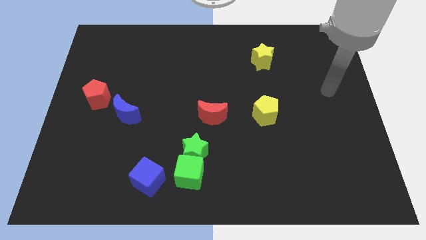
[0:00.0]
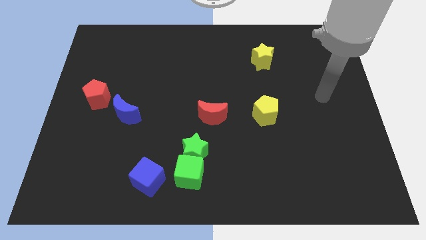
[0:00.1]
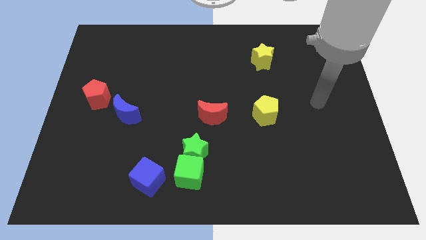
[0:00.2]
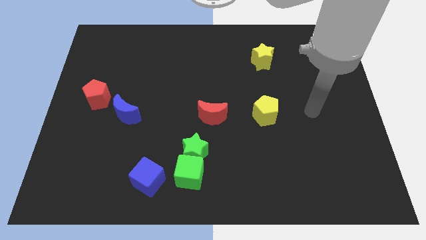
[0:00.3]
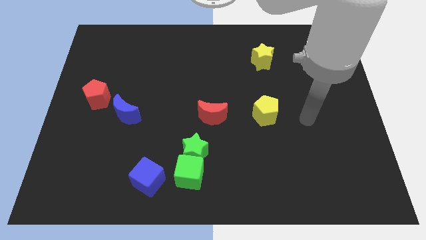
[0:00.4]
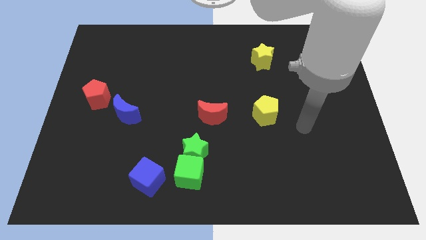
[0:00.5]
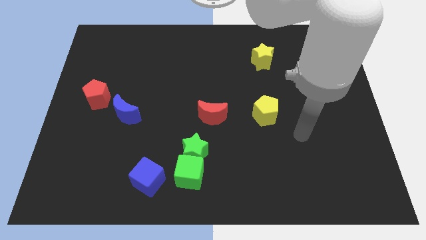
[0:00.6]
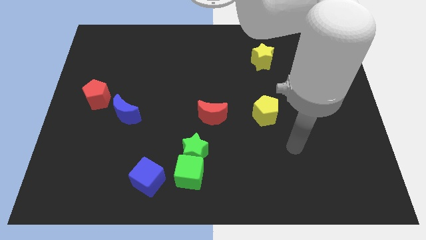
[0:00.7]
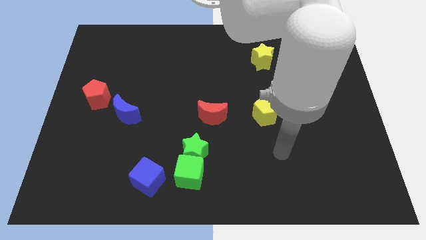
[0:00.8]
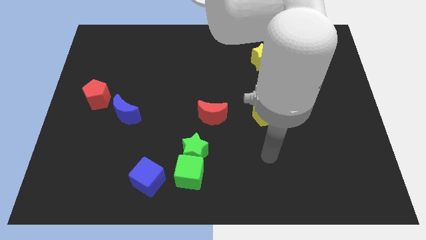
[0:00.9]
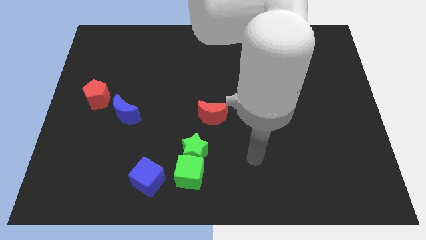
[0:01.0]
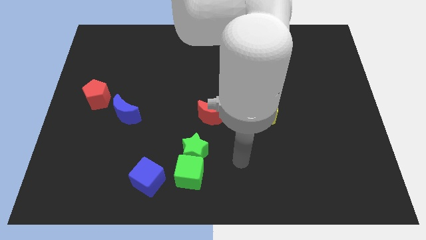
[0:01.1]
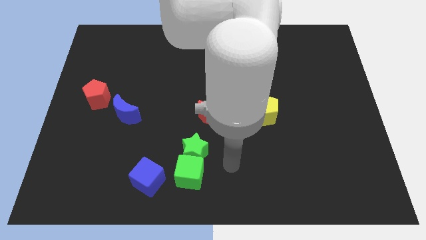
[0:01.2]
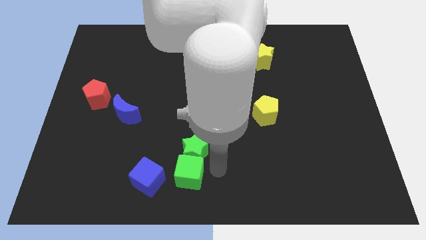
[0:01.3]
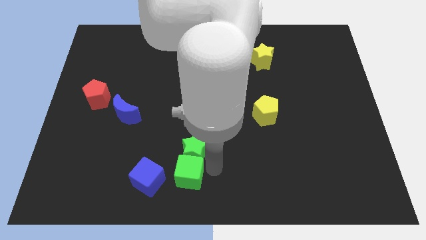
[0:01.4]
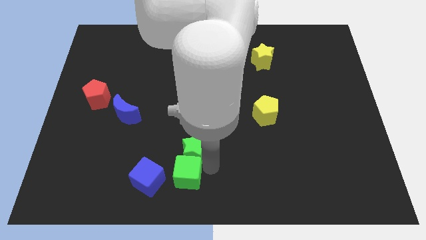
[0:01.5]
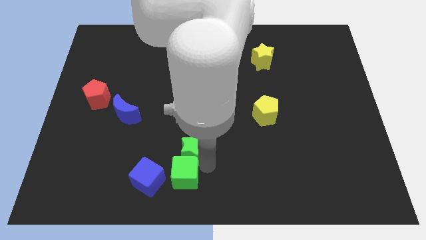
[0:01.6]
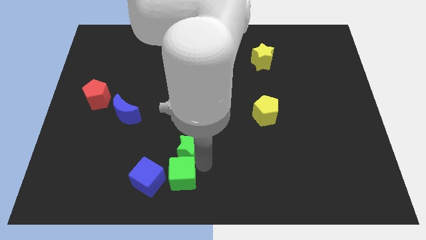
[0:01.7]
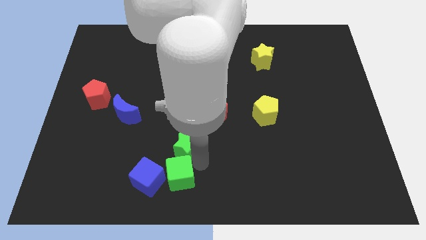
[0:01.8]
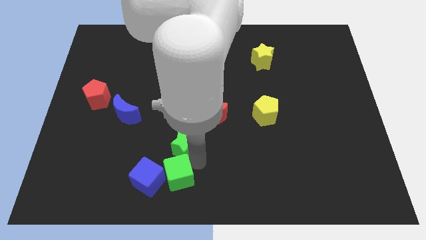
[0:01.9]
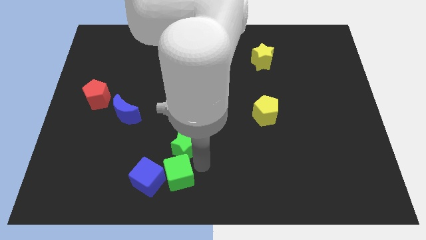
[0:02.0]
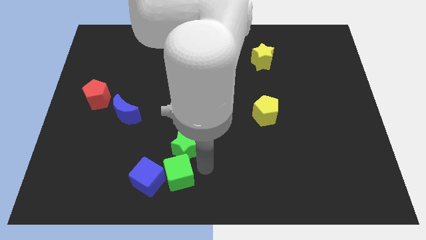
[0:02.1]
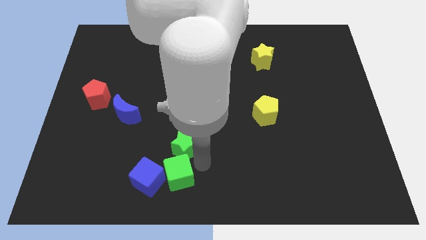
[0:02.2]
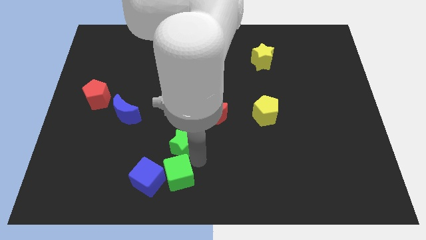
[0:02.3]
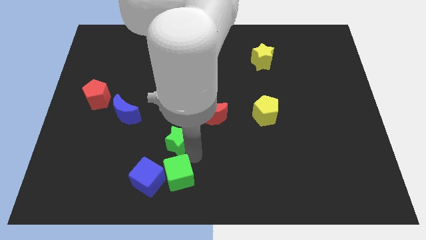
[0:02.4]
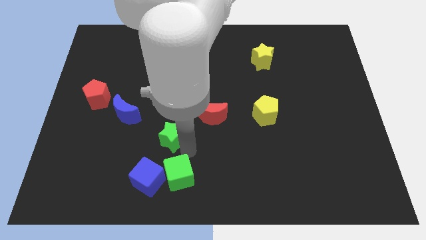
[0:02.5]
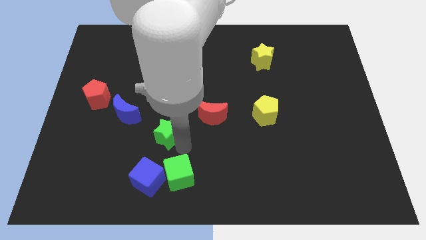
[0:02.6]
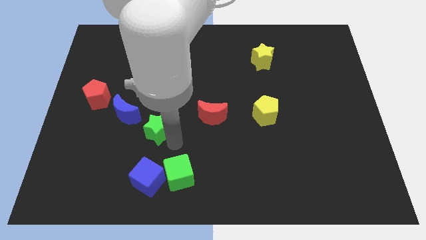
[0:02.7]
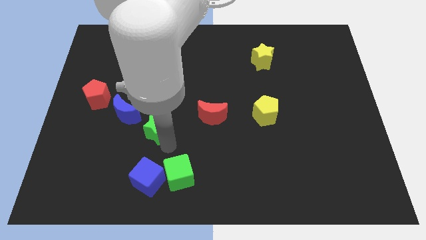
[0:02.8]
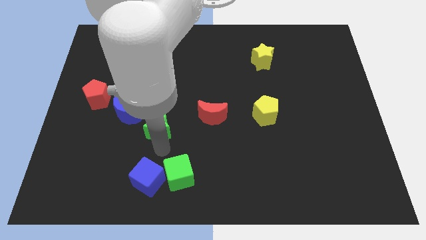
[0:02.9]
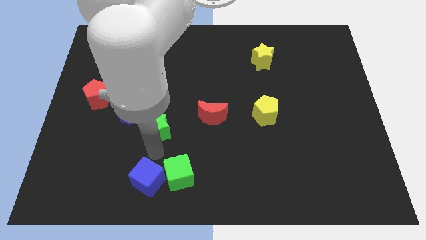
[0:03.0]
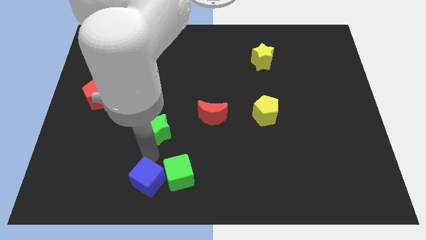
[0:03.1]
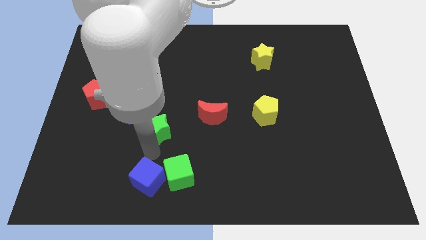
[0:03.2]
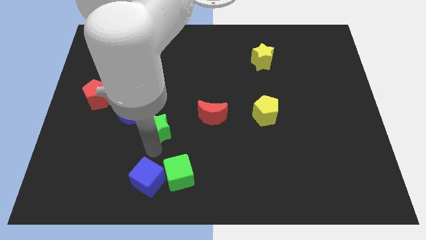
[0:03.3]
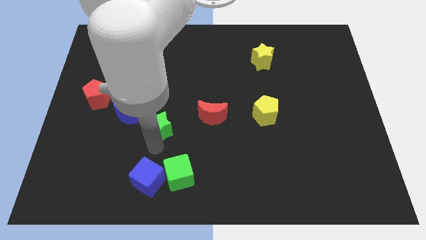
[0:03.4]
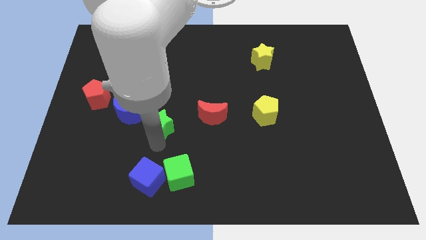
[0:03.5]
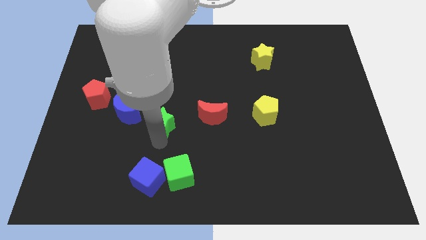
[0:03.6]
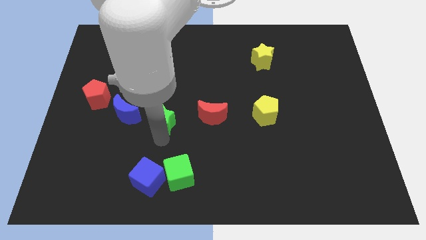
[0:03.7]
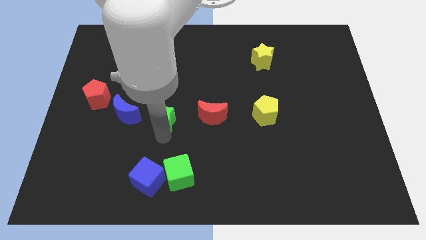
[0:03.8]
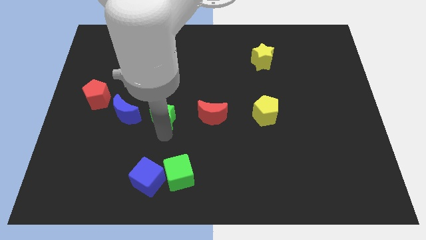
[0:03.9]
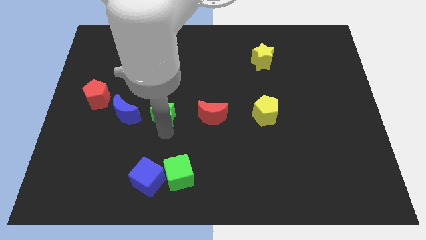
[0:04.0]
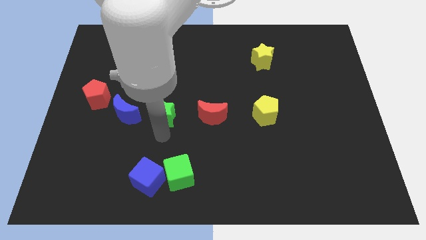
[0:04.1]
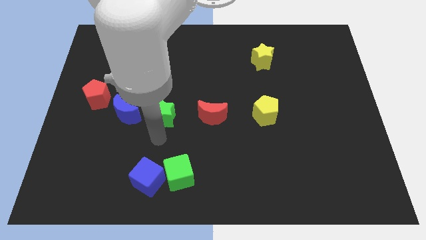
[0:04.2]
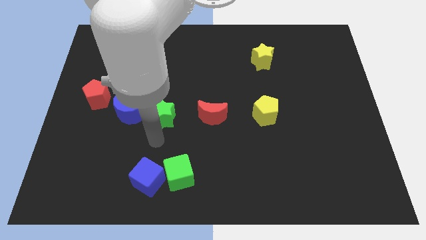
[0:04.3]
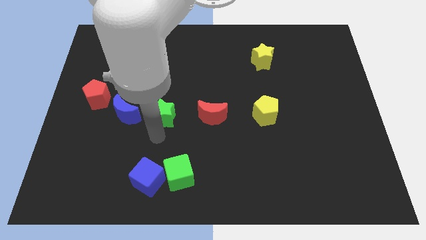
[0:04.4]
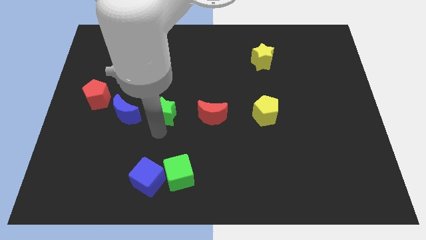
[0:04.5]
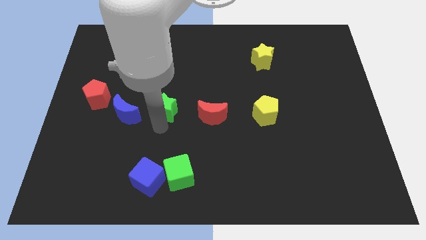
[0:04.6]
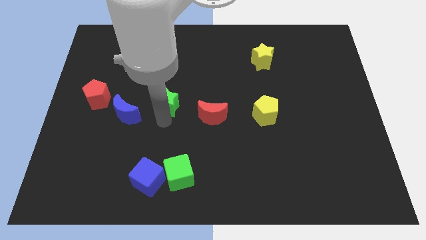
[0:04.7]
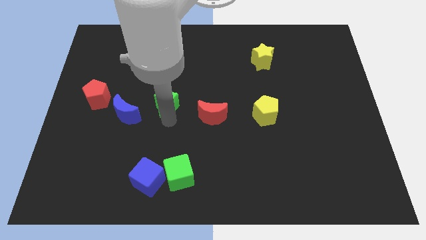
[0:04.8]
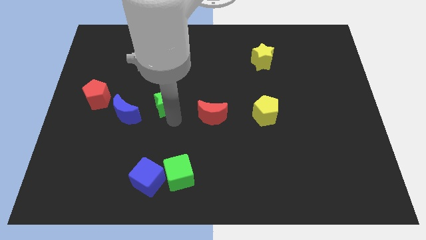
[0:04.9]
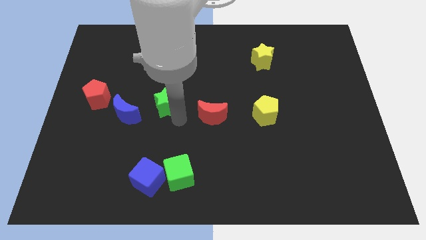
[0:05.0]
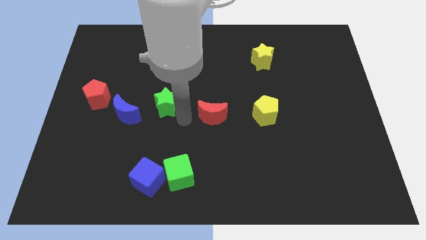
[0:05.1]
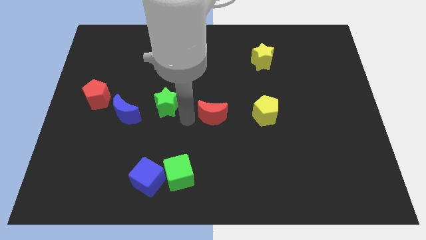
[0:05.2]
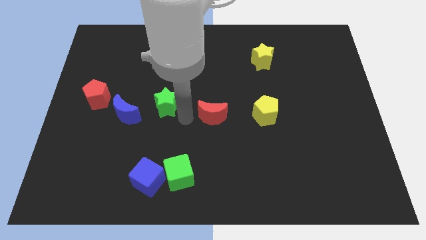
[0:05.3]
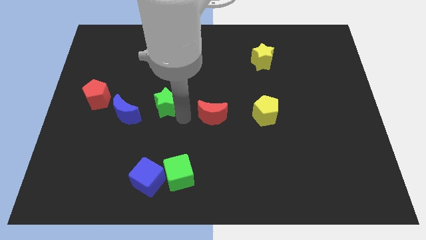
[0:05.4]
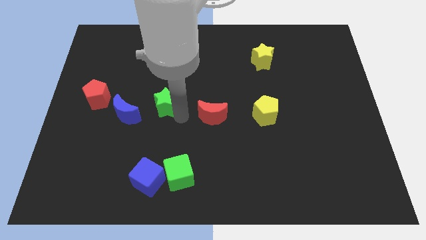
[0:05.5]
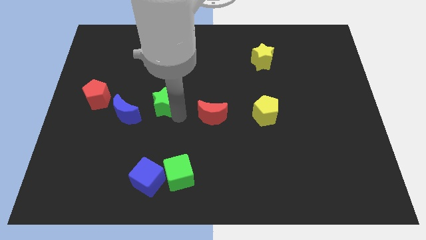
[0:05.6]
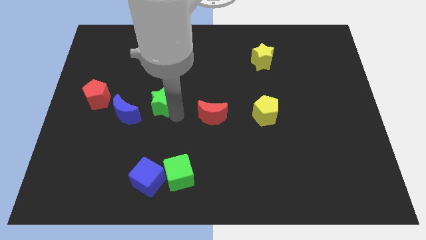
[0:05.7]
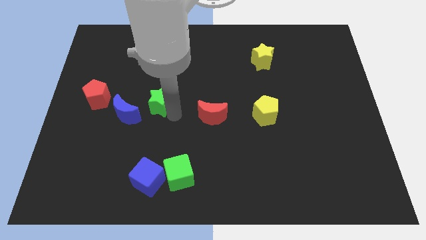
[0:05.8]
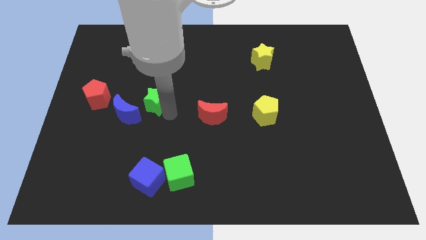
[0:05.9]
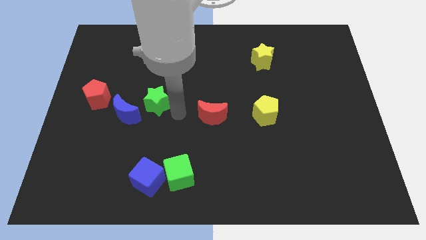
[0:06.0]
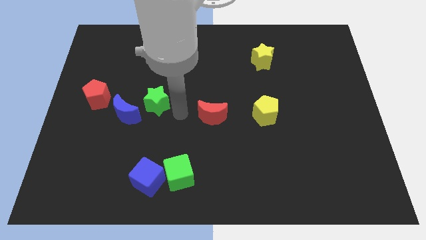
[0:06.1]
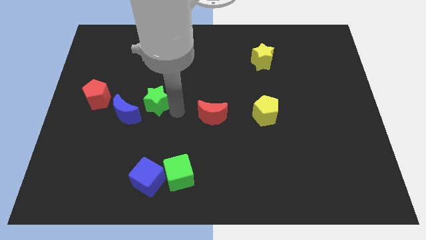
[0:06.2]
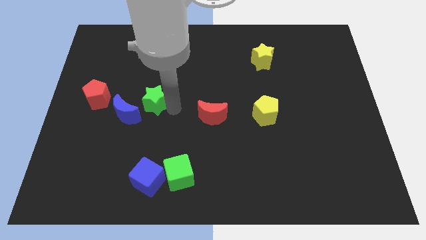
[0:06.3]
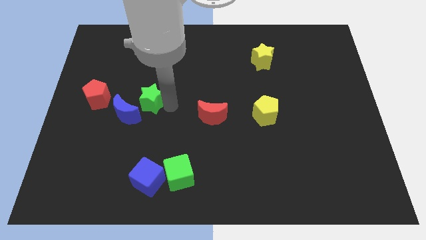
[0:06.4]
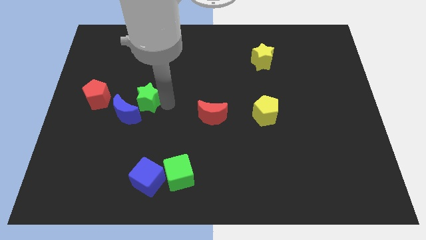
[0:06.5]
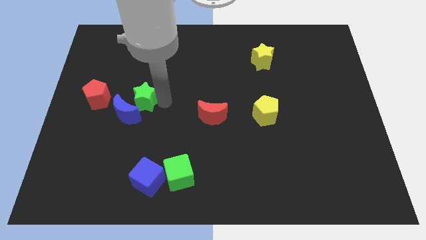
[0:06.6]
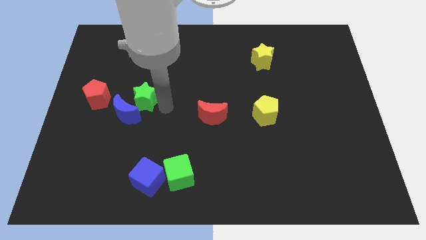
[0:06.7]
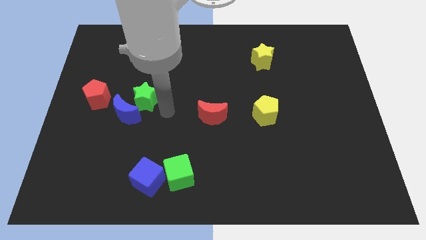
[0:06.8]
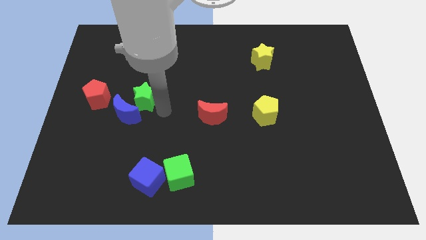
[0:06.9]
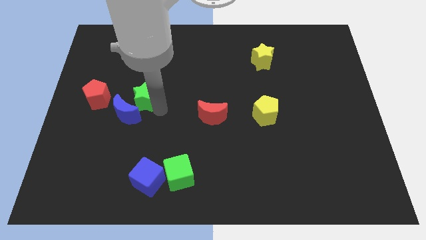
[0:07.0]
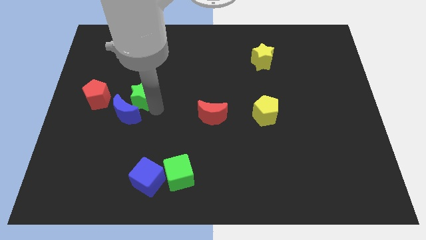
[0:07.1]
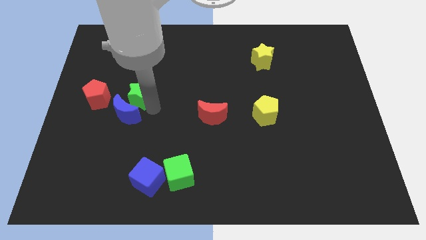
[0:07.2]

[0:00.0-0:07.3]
move the green star diagonally up and left

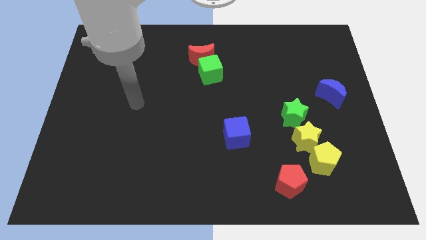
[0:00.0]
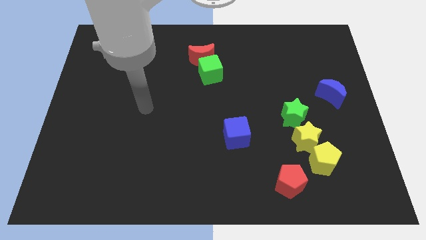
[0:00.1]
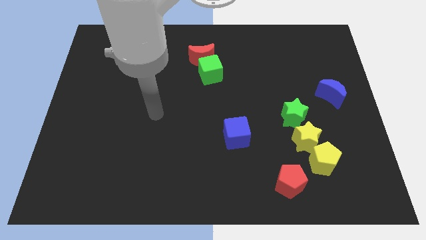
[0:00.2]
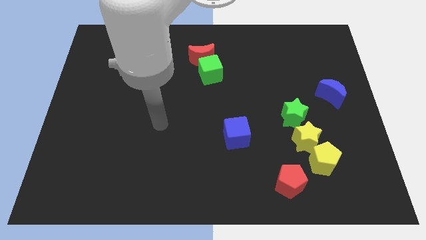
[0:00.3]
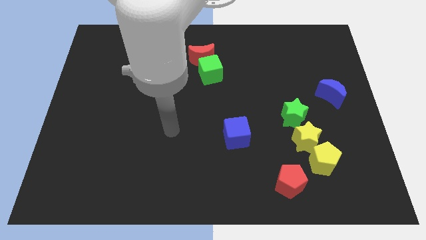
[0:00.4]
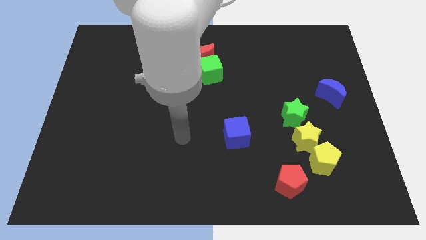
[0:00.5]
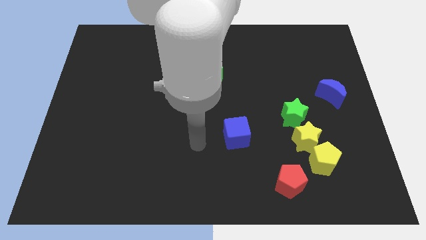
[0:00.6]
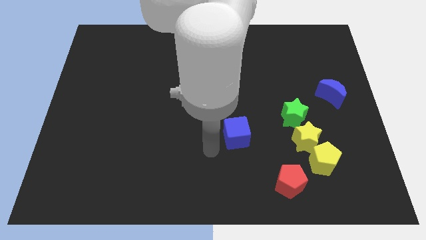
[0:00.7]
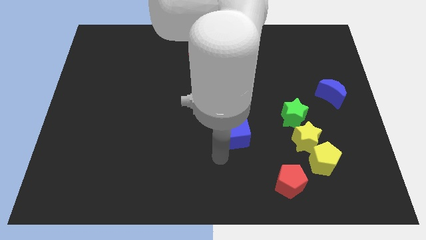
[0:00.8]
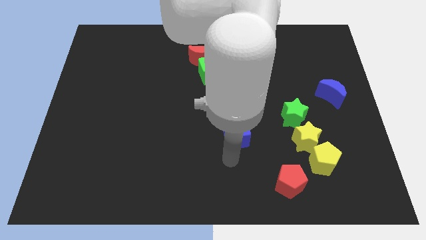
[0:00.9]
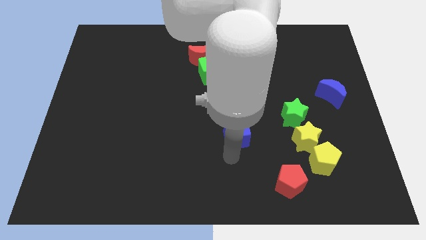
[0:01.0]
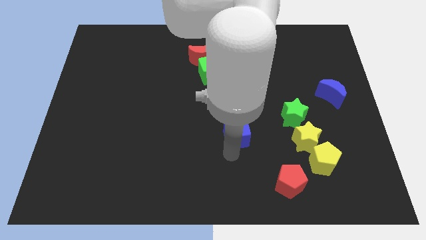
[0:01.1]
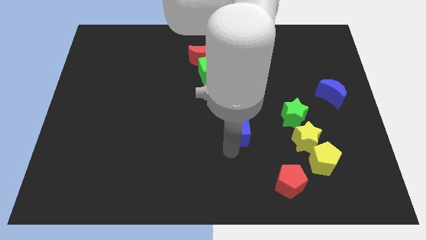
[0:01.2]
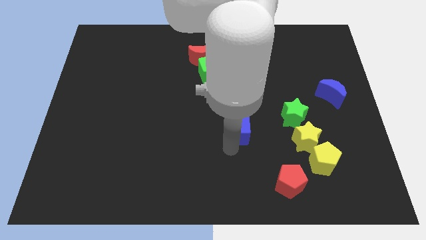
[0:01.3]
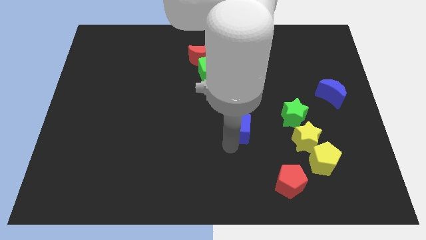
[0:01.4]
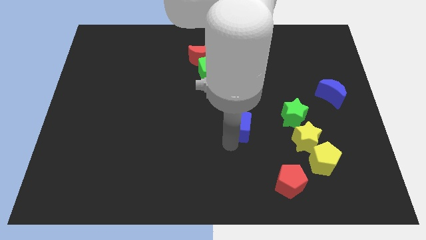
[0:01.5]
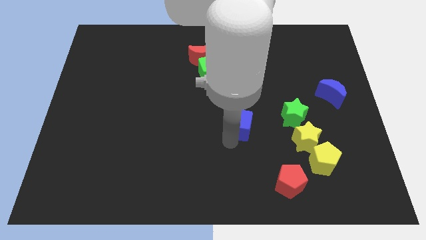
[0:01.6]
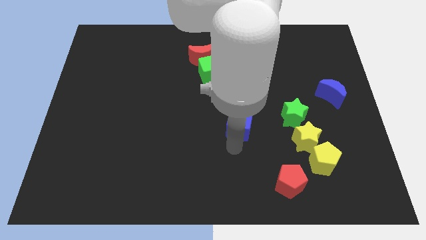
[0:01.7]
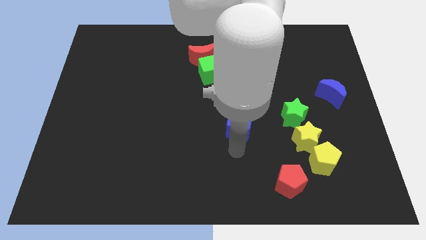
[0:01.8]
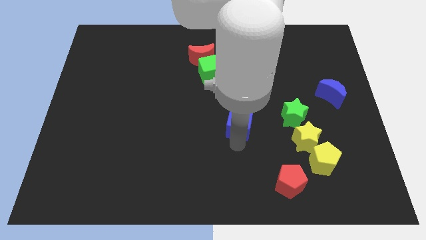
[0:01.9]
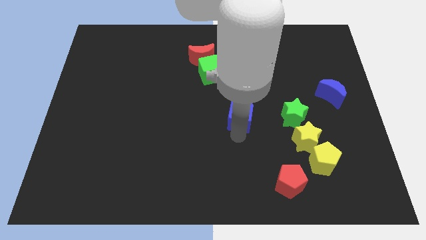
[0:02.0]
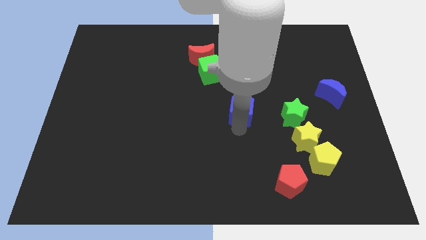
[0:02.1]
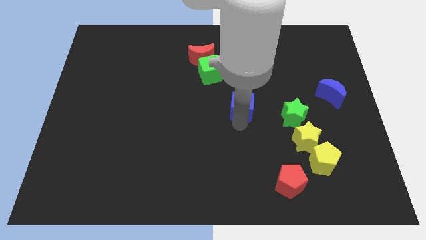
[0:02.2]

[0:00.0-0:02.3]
slide the blue cube a little upwards
